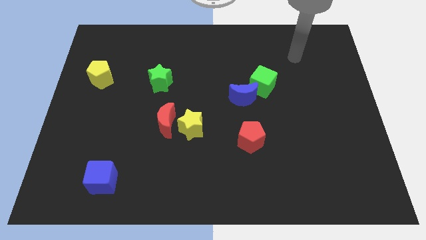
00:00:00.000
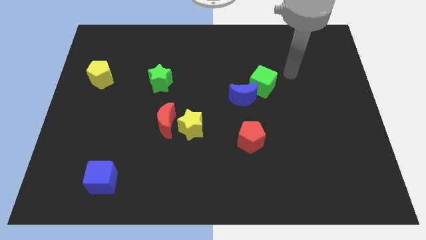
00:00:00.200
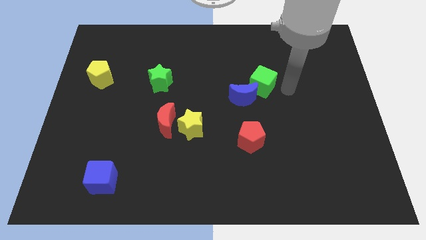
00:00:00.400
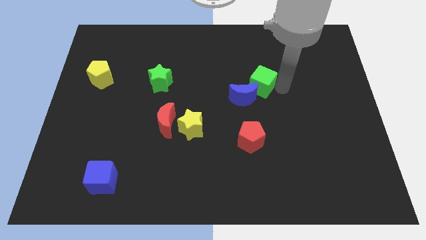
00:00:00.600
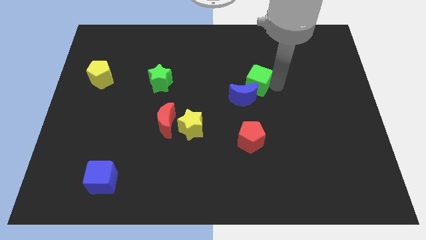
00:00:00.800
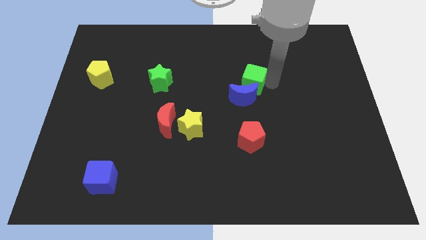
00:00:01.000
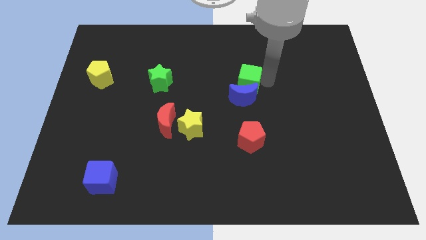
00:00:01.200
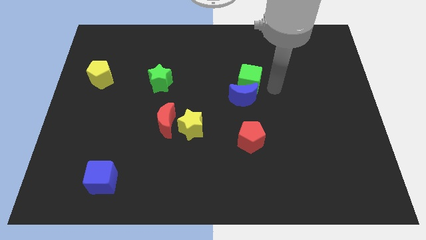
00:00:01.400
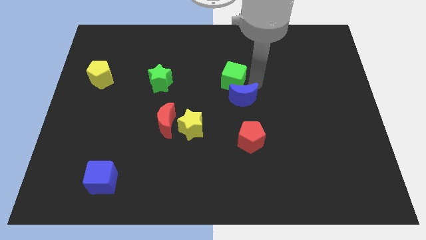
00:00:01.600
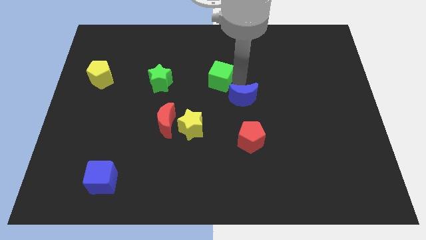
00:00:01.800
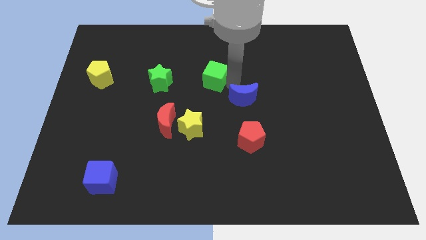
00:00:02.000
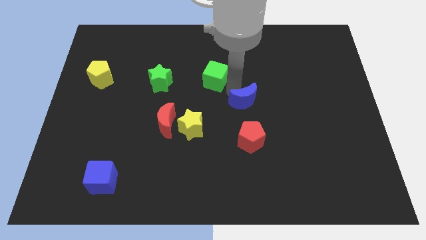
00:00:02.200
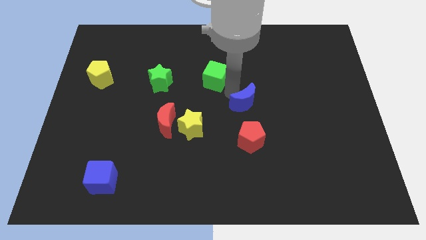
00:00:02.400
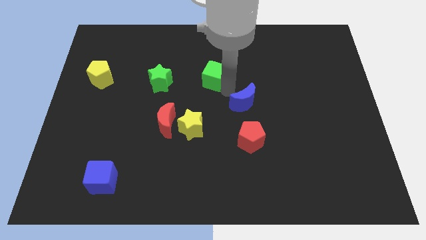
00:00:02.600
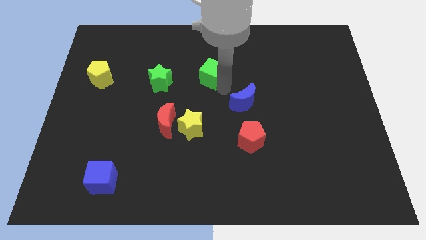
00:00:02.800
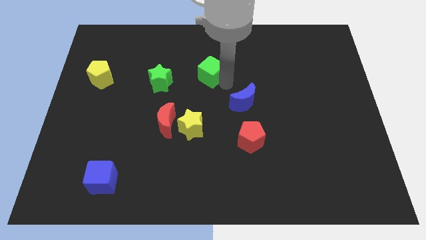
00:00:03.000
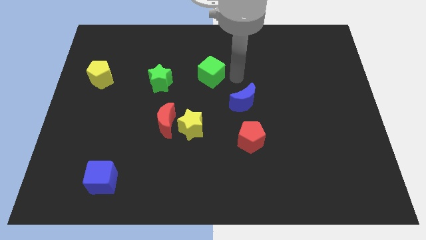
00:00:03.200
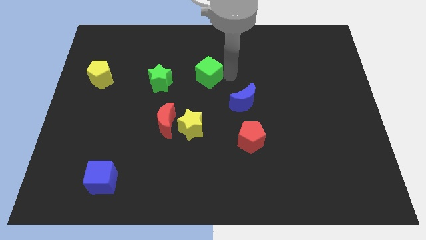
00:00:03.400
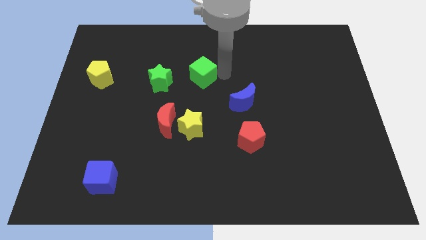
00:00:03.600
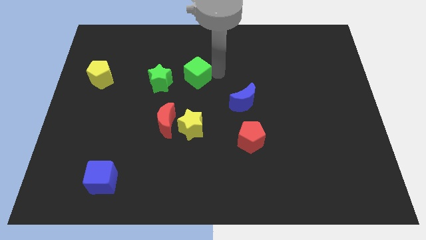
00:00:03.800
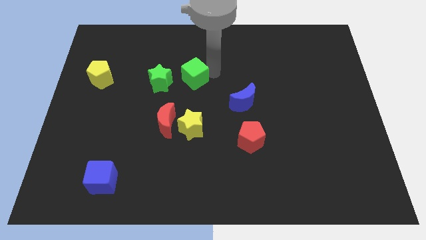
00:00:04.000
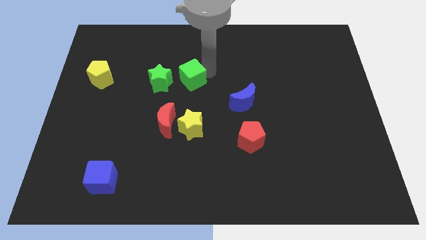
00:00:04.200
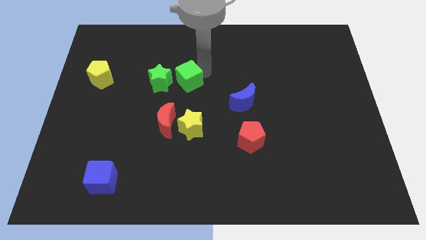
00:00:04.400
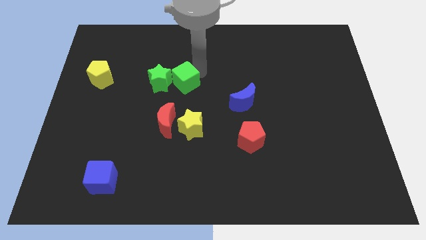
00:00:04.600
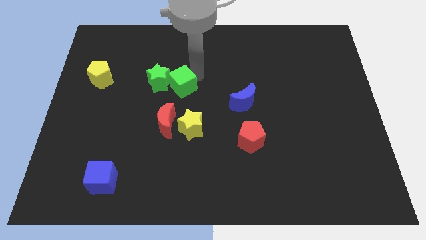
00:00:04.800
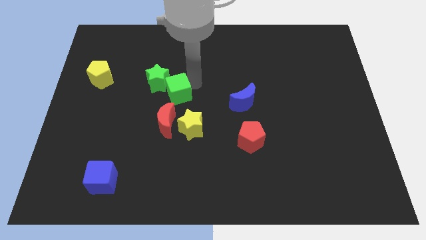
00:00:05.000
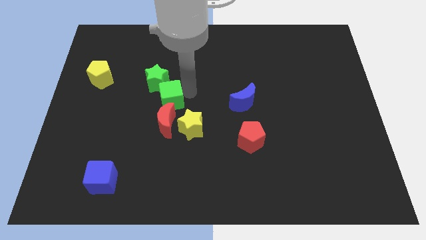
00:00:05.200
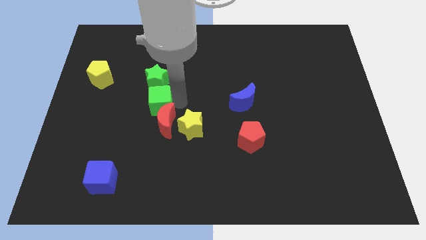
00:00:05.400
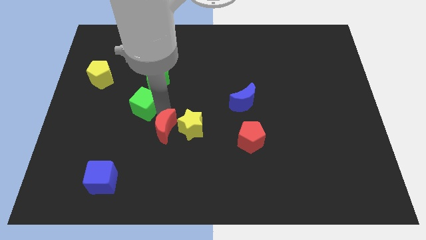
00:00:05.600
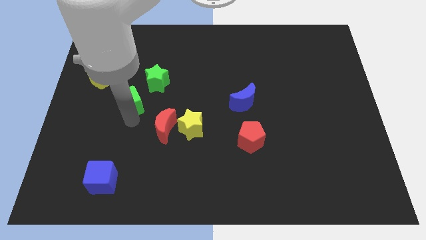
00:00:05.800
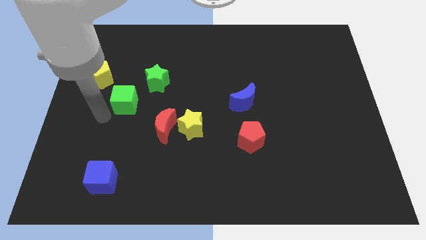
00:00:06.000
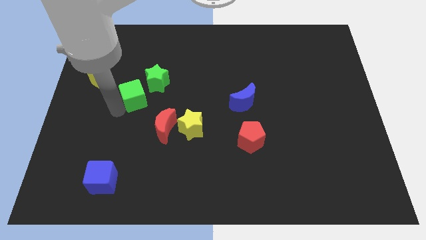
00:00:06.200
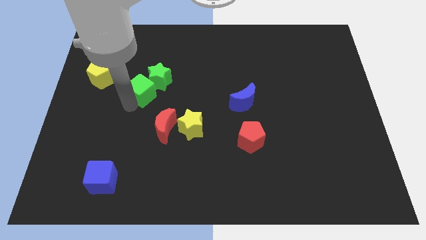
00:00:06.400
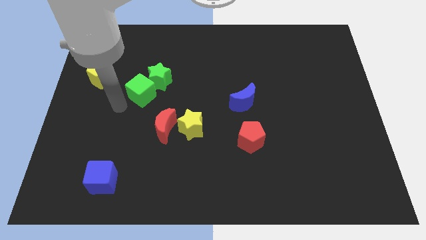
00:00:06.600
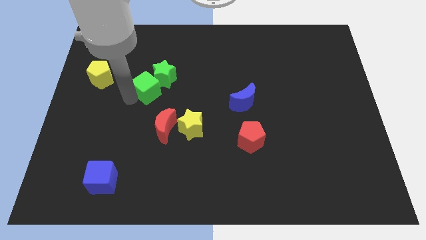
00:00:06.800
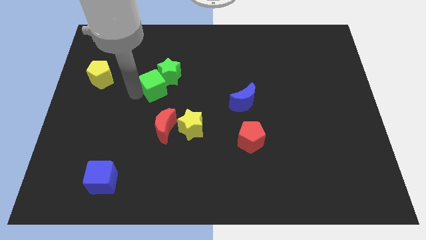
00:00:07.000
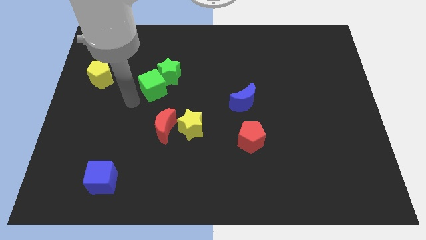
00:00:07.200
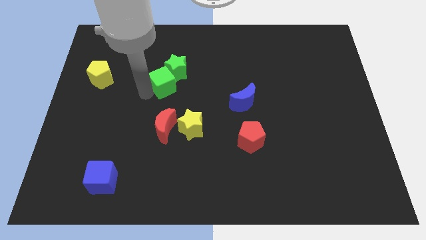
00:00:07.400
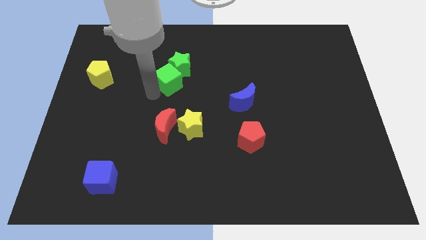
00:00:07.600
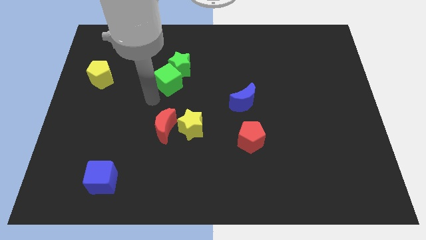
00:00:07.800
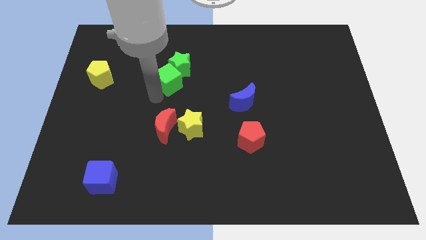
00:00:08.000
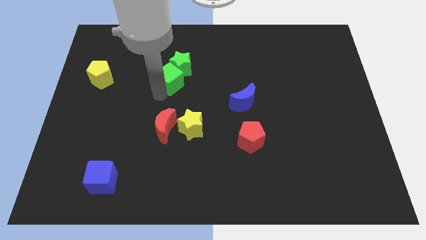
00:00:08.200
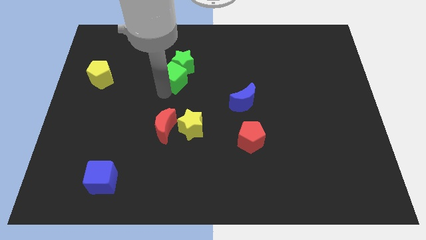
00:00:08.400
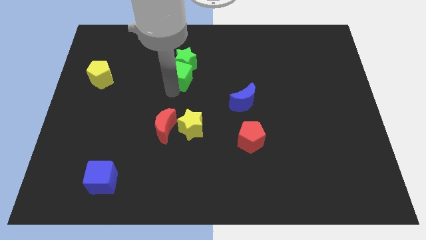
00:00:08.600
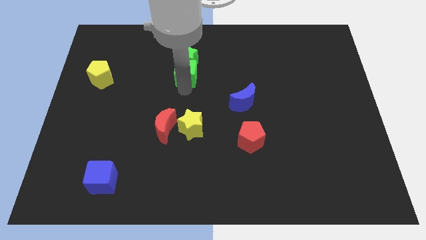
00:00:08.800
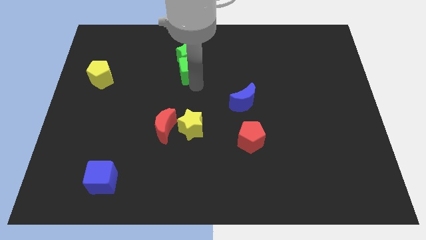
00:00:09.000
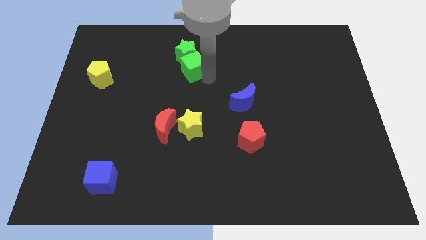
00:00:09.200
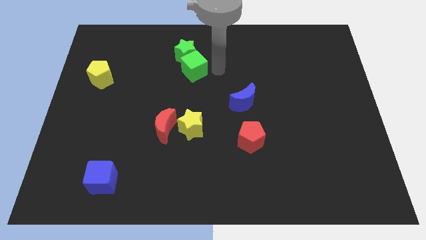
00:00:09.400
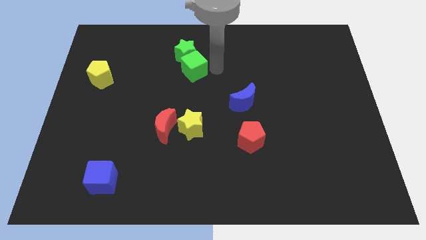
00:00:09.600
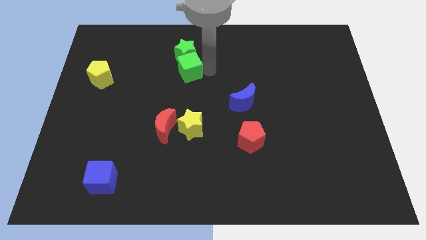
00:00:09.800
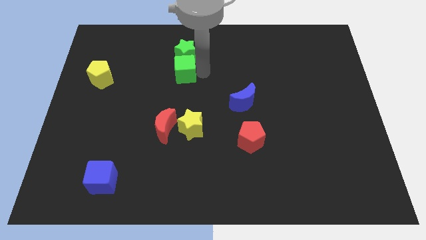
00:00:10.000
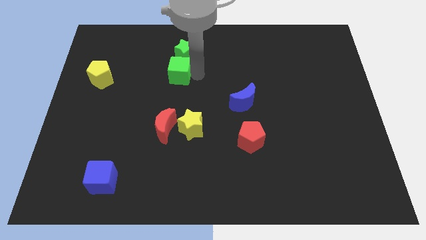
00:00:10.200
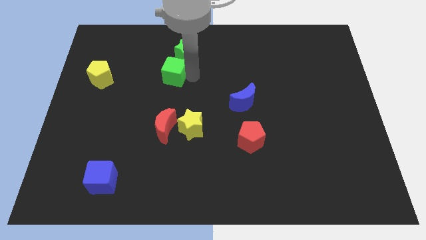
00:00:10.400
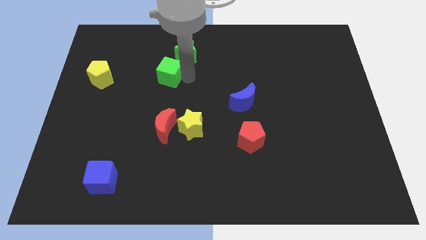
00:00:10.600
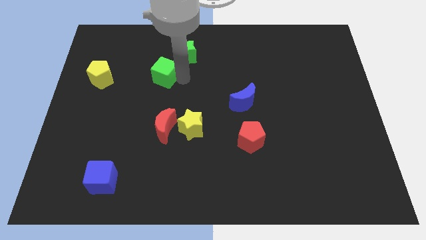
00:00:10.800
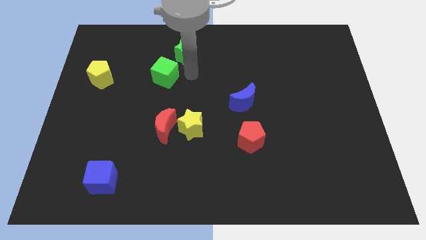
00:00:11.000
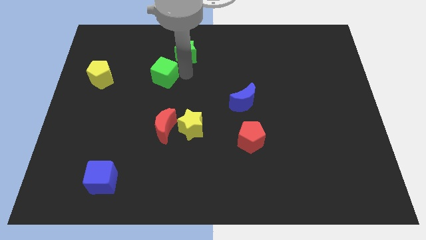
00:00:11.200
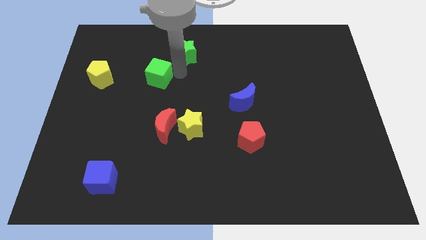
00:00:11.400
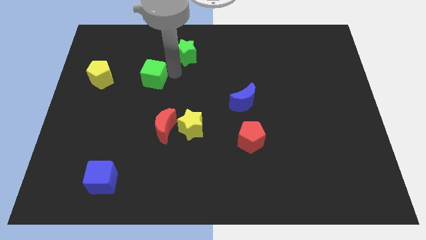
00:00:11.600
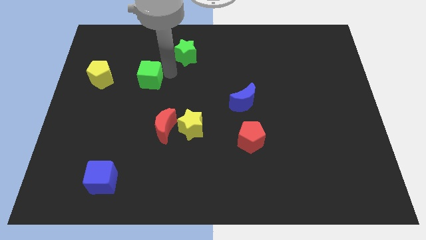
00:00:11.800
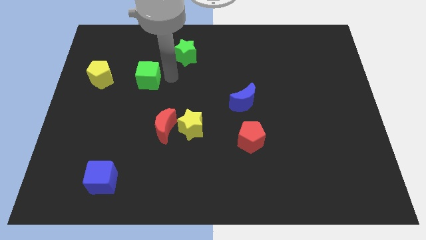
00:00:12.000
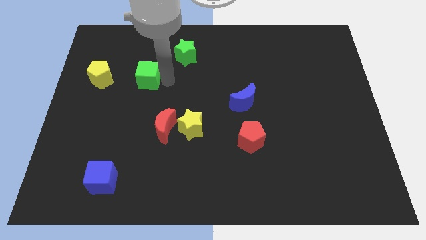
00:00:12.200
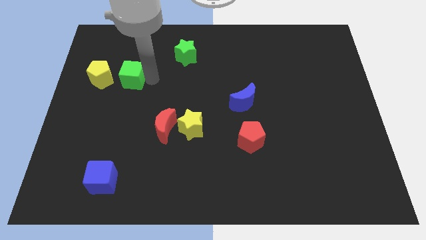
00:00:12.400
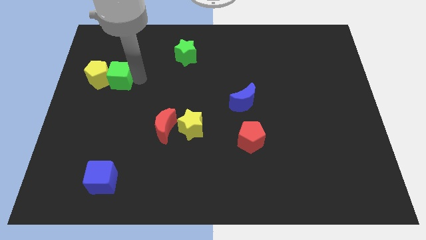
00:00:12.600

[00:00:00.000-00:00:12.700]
push the green cube close to the yellow pentagon

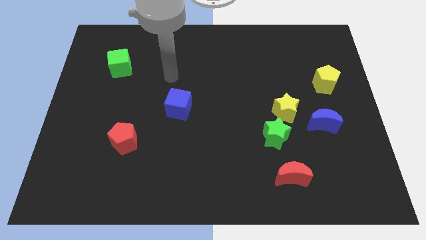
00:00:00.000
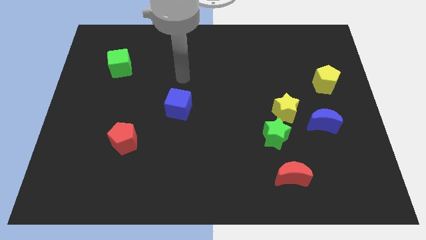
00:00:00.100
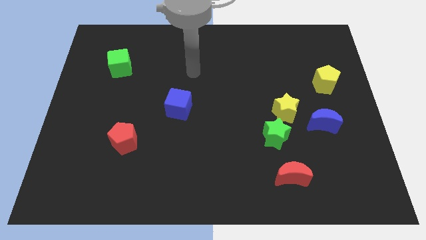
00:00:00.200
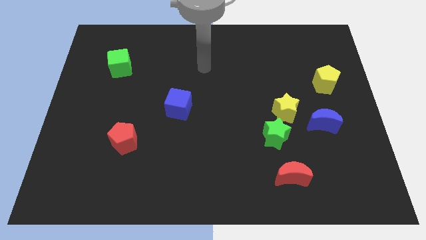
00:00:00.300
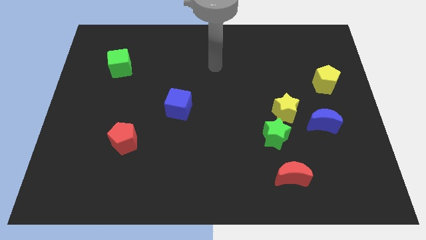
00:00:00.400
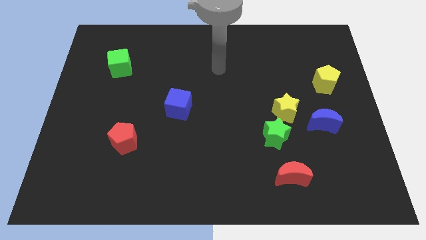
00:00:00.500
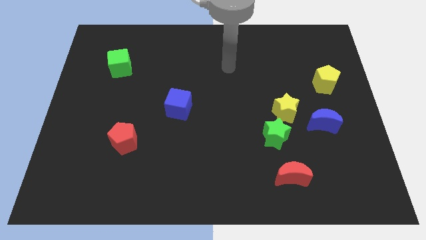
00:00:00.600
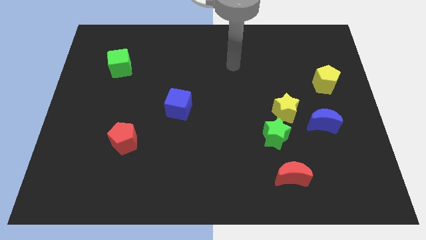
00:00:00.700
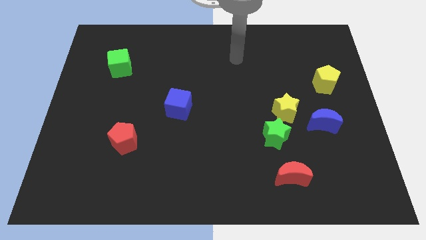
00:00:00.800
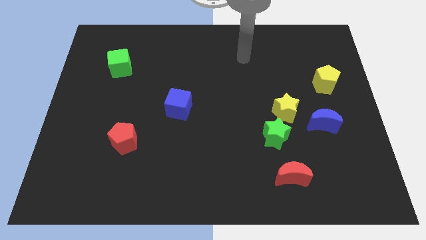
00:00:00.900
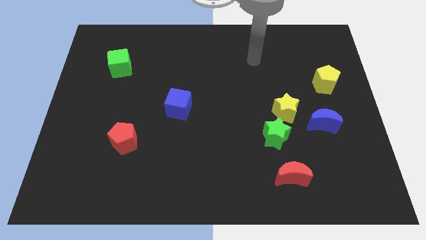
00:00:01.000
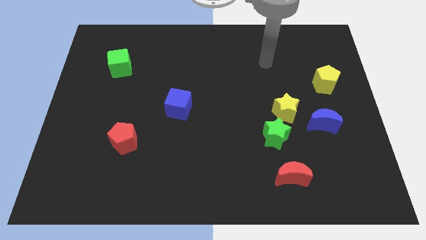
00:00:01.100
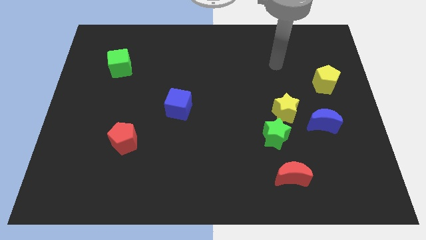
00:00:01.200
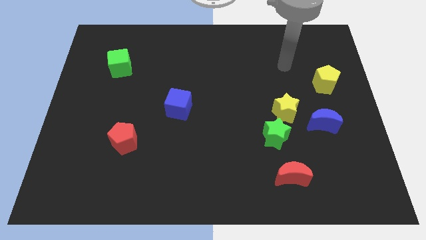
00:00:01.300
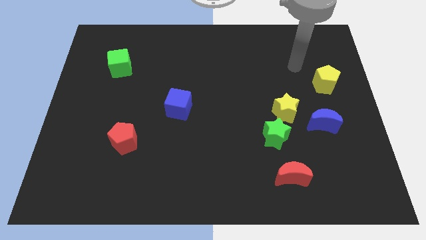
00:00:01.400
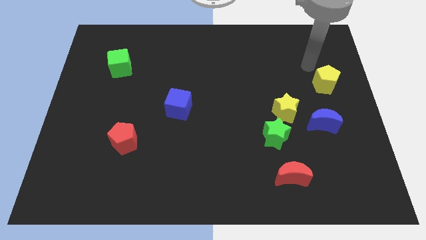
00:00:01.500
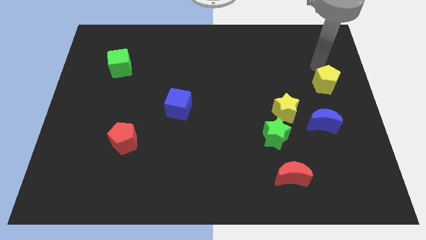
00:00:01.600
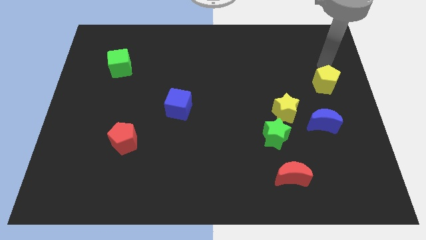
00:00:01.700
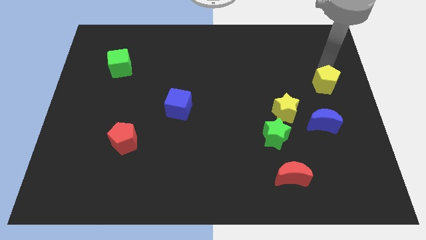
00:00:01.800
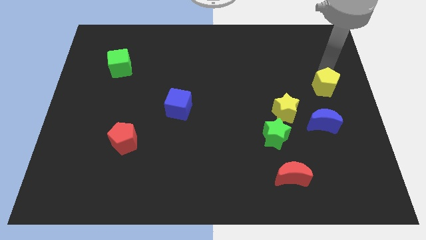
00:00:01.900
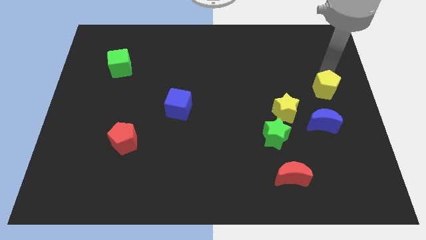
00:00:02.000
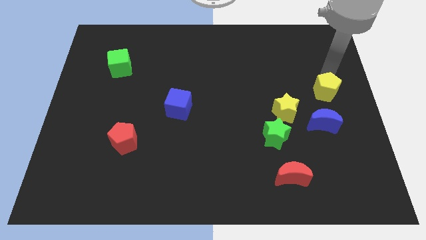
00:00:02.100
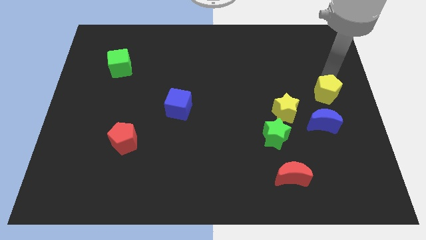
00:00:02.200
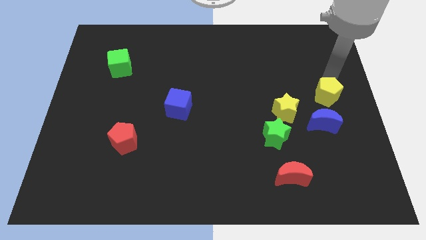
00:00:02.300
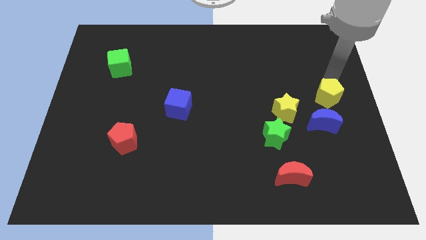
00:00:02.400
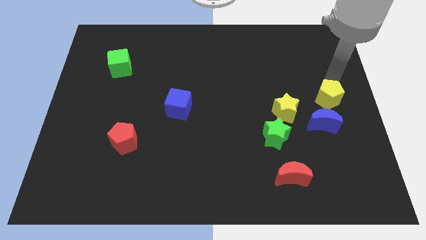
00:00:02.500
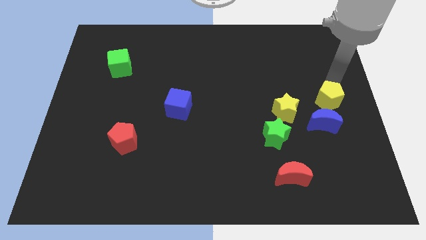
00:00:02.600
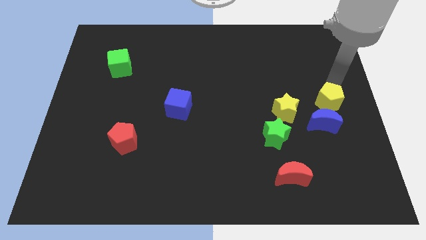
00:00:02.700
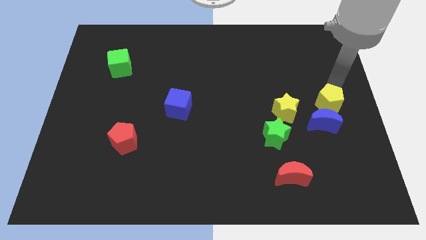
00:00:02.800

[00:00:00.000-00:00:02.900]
push the yellow pentagon towards the blue moon
